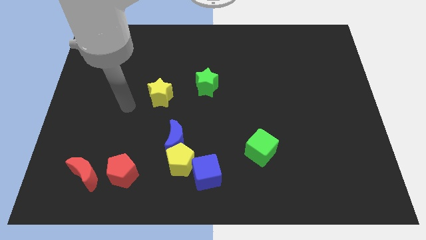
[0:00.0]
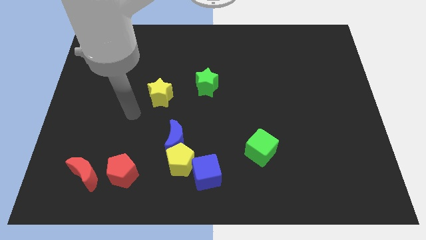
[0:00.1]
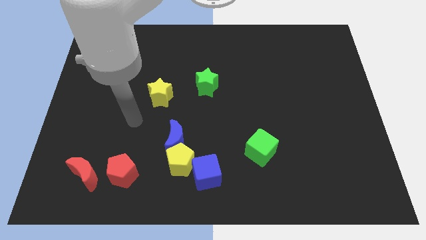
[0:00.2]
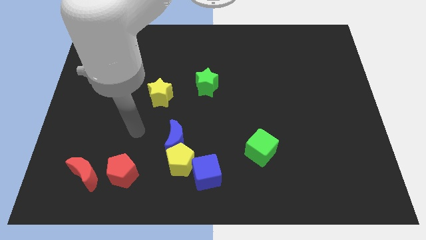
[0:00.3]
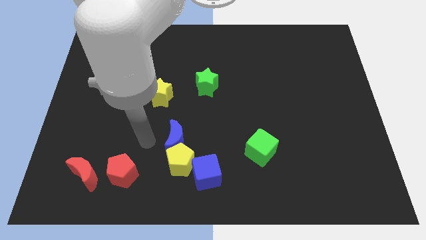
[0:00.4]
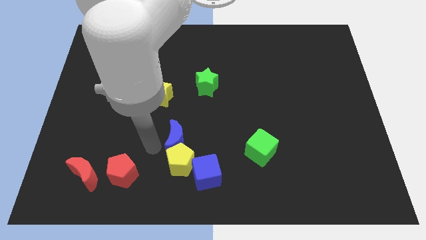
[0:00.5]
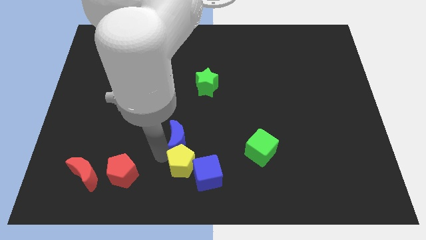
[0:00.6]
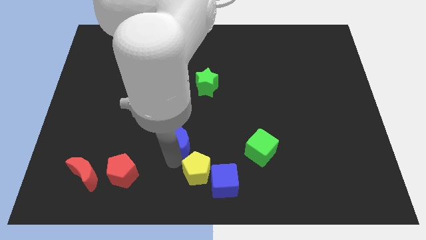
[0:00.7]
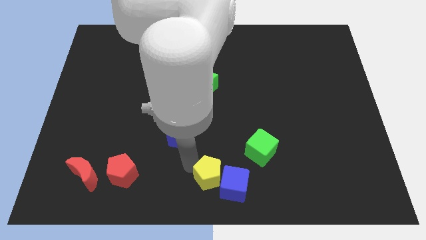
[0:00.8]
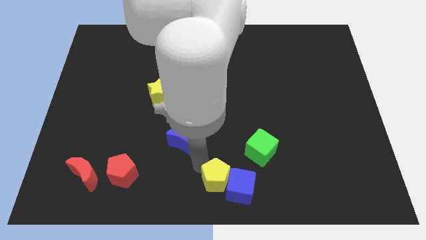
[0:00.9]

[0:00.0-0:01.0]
move the blue moon away from the yellow pentagon

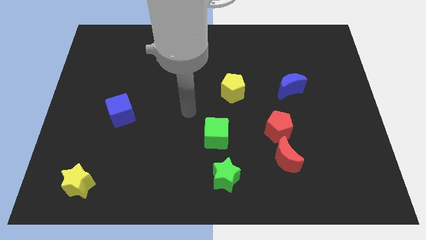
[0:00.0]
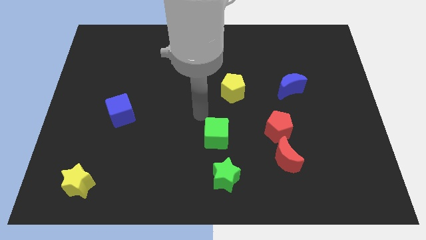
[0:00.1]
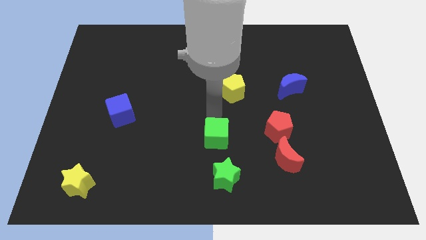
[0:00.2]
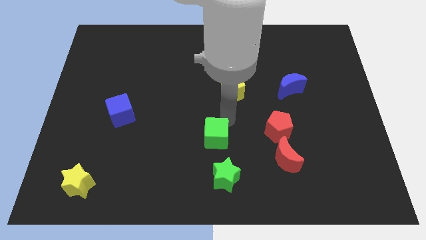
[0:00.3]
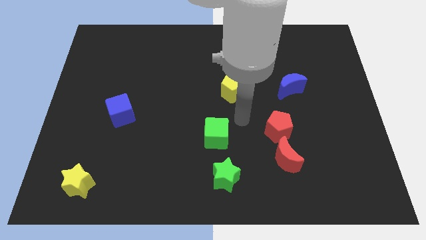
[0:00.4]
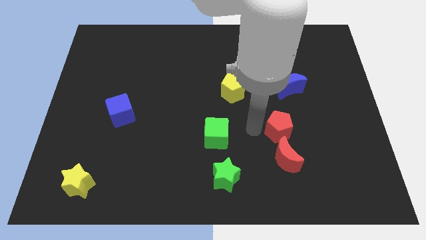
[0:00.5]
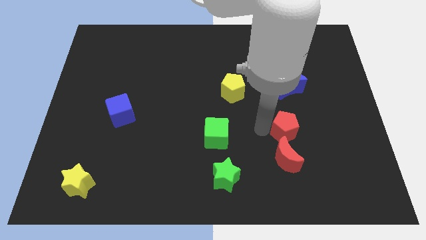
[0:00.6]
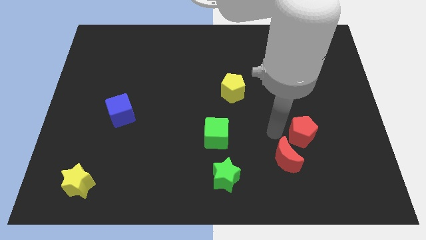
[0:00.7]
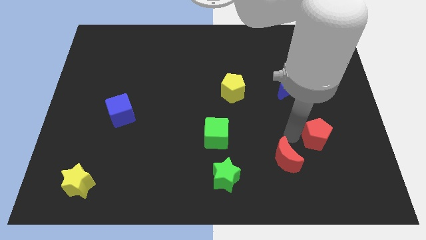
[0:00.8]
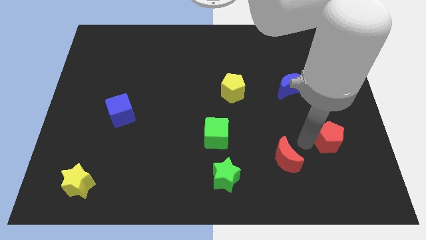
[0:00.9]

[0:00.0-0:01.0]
move the red moon away from the red pentagon

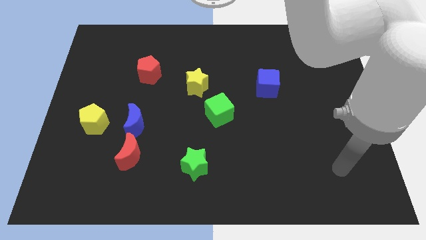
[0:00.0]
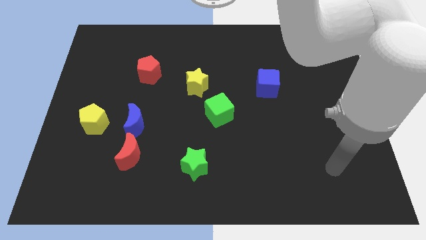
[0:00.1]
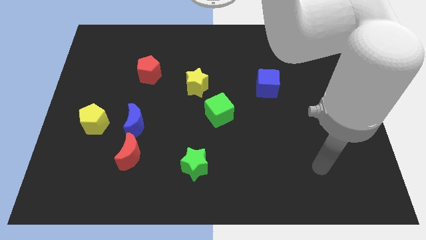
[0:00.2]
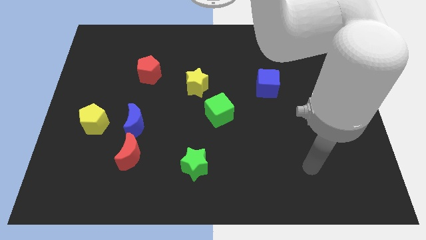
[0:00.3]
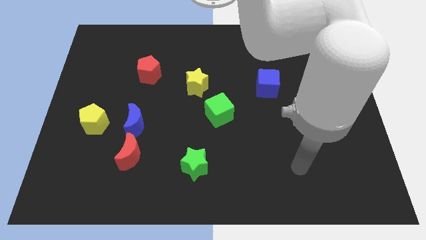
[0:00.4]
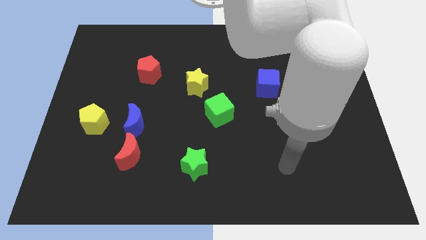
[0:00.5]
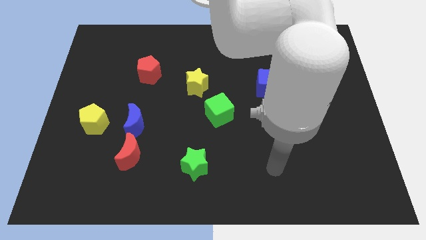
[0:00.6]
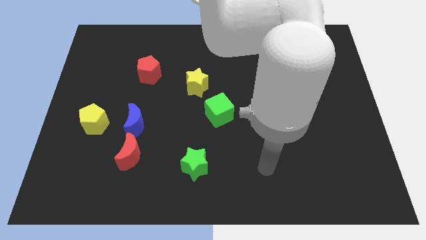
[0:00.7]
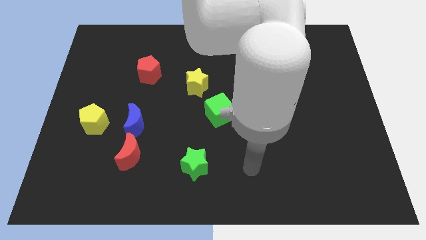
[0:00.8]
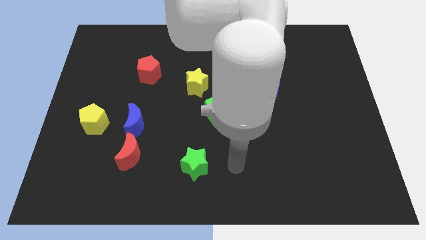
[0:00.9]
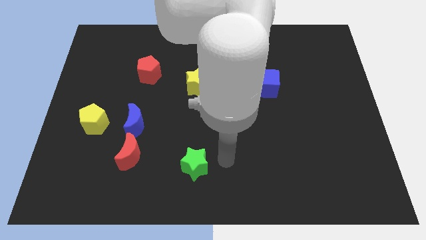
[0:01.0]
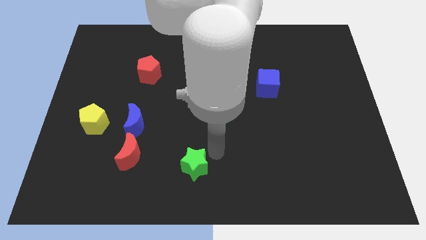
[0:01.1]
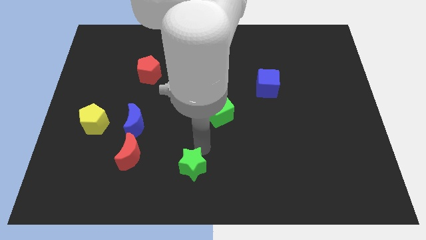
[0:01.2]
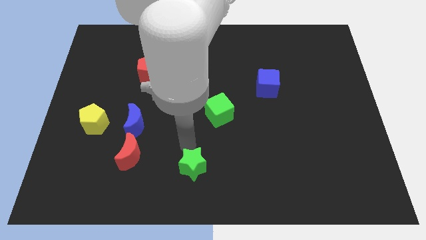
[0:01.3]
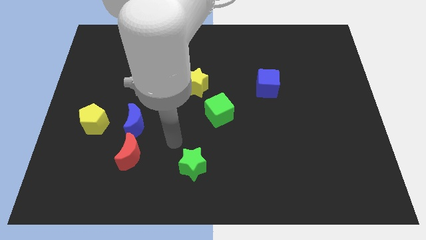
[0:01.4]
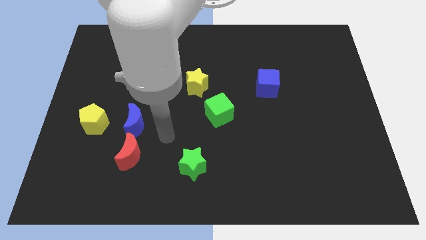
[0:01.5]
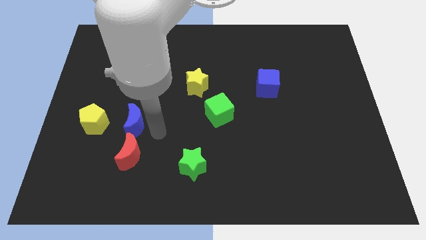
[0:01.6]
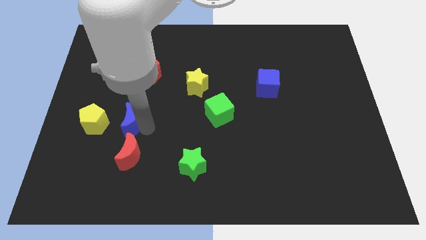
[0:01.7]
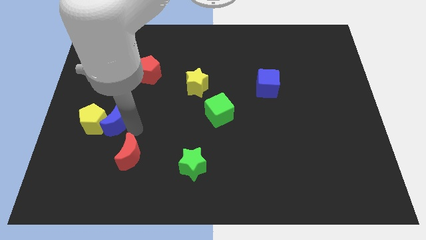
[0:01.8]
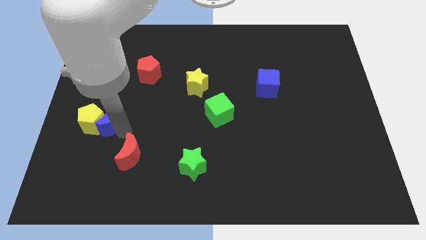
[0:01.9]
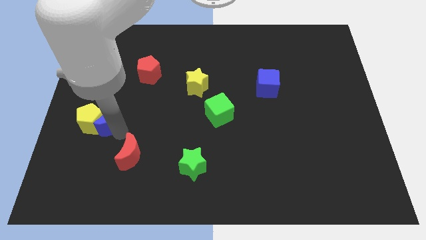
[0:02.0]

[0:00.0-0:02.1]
separate the red moon from the blue moon

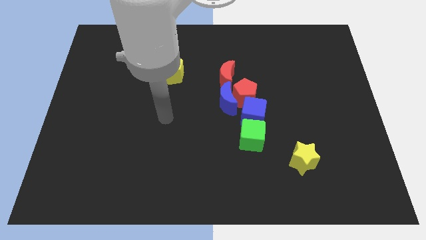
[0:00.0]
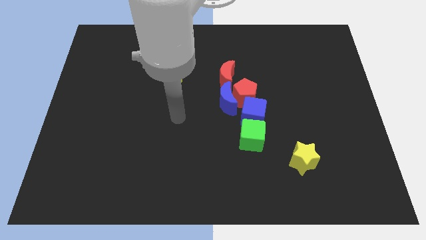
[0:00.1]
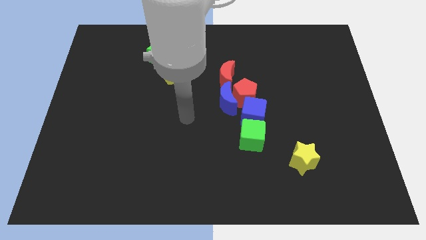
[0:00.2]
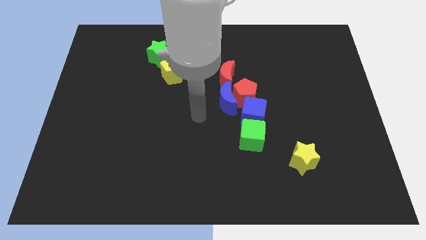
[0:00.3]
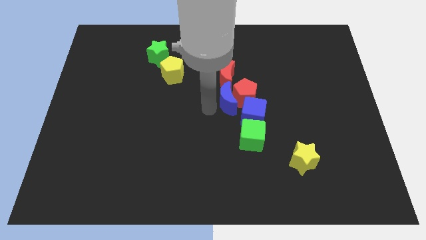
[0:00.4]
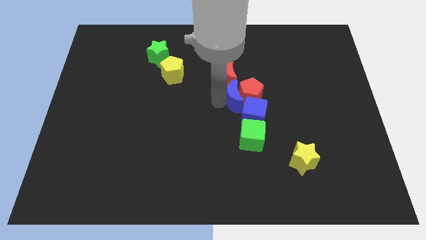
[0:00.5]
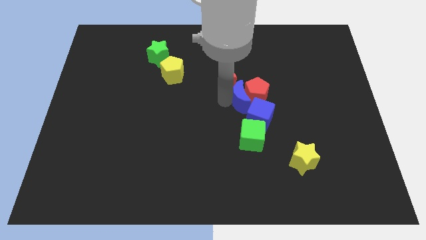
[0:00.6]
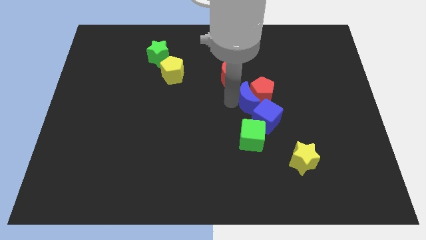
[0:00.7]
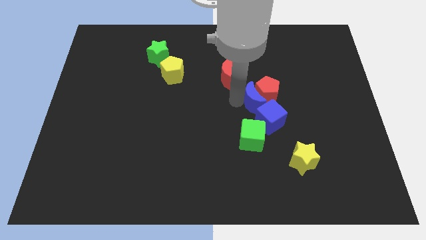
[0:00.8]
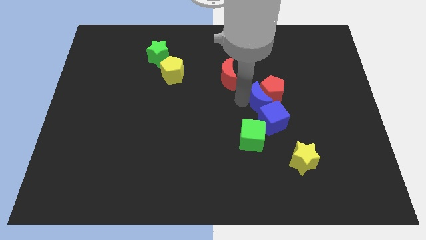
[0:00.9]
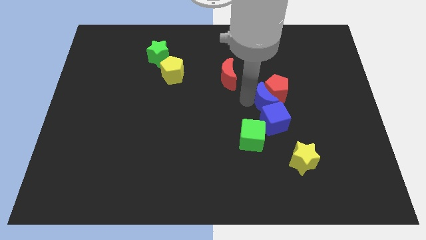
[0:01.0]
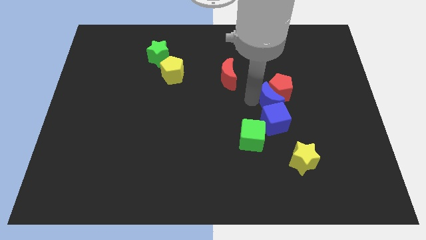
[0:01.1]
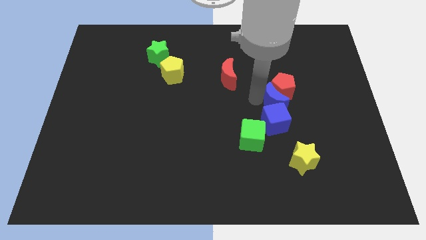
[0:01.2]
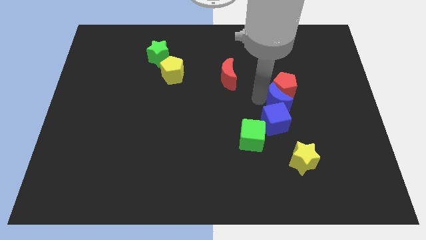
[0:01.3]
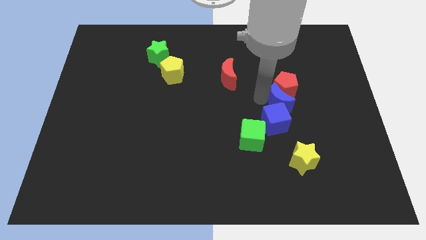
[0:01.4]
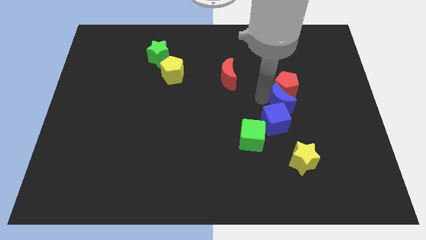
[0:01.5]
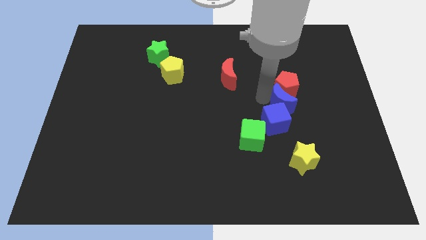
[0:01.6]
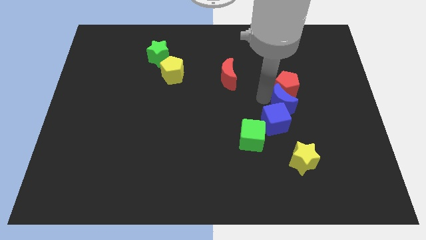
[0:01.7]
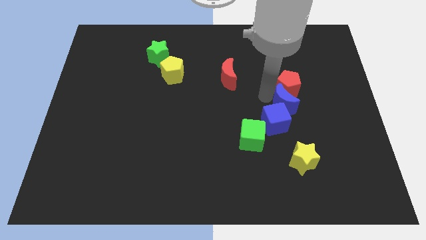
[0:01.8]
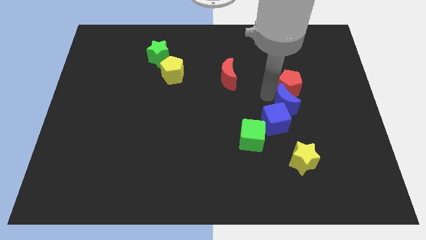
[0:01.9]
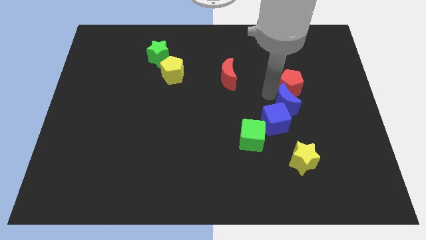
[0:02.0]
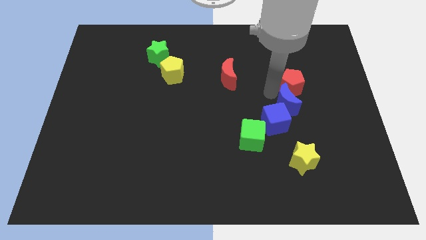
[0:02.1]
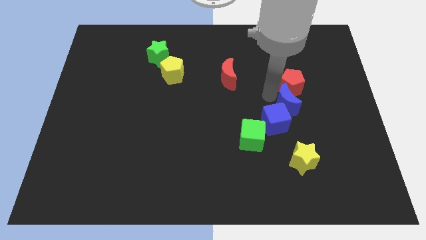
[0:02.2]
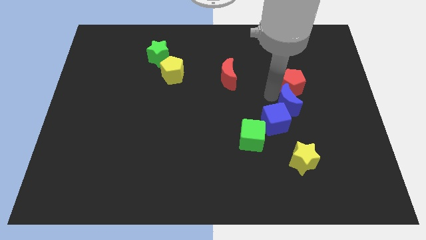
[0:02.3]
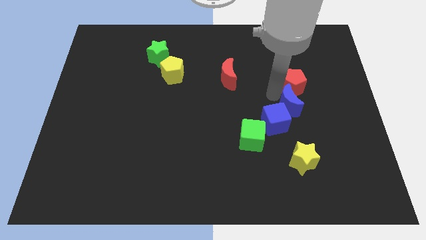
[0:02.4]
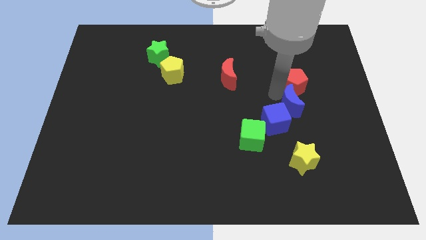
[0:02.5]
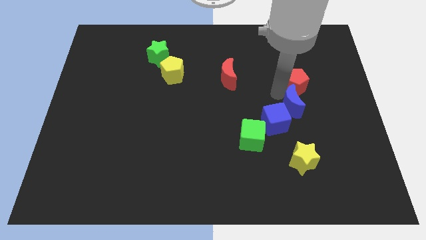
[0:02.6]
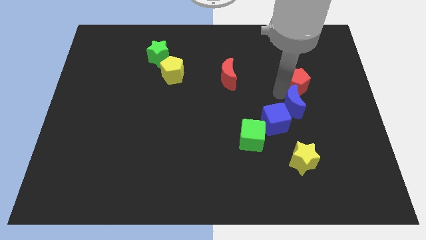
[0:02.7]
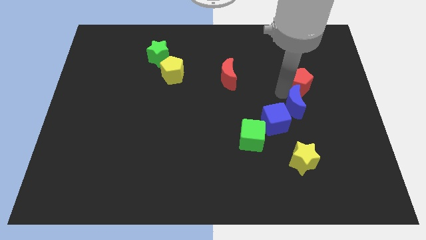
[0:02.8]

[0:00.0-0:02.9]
pull the red pentagon apart from the clump

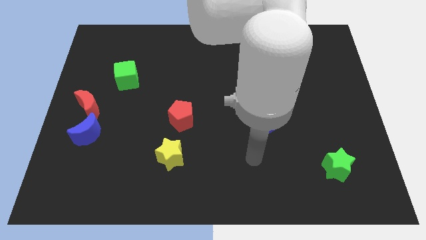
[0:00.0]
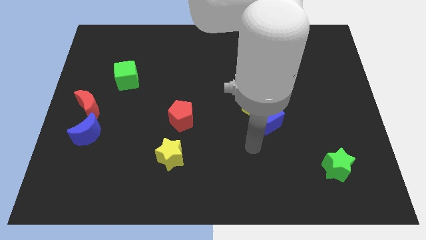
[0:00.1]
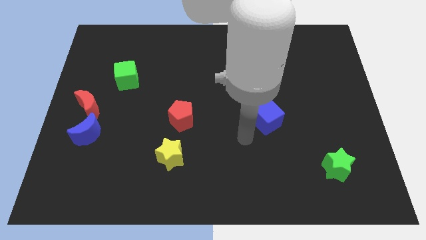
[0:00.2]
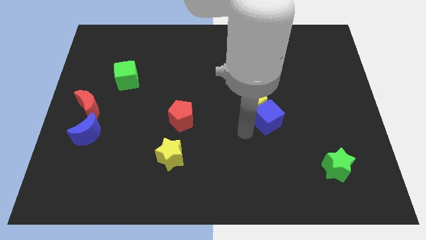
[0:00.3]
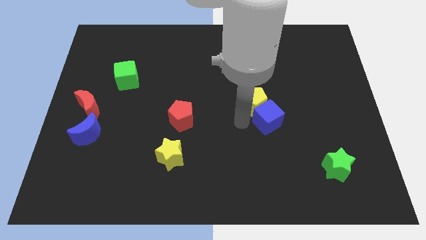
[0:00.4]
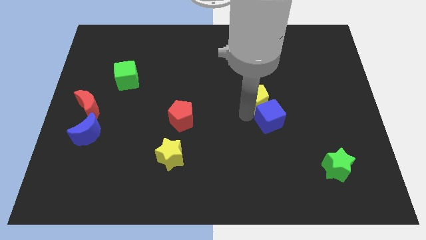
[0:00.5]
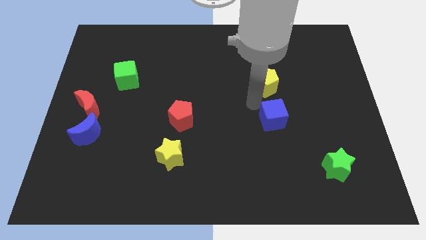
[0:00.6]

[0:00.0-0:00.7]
separate the blue cube from the yellow pentagon

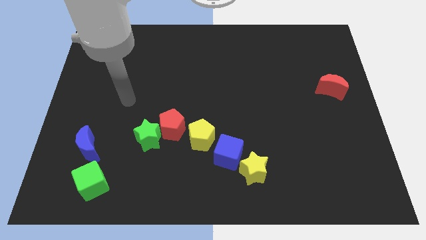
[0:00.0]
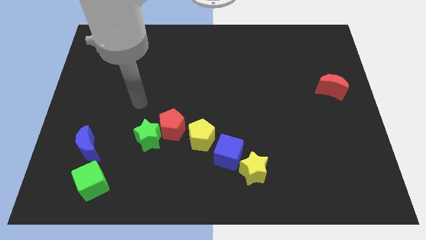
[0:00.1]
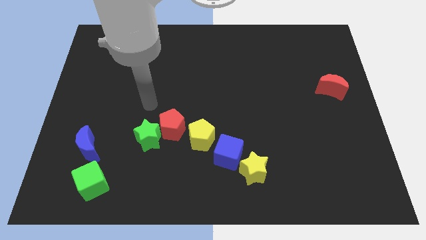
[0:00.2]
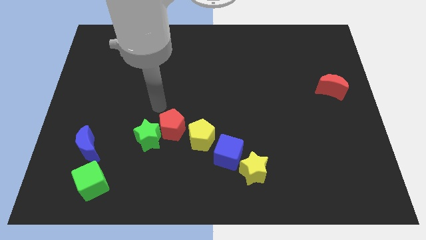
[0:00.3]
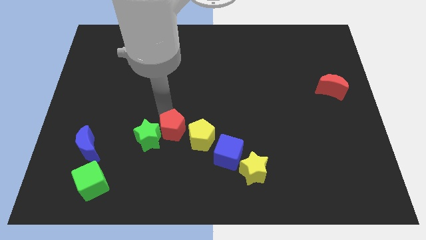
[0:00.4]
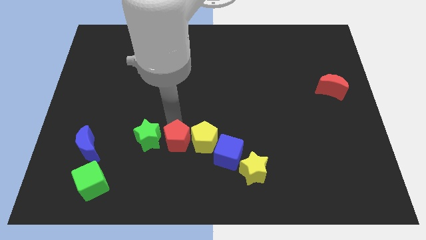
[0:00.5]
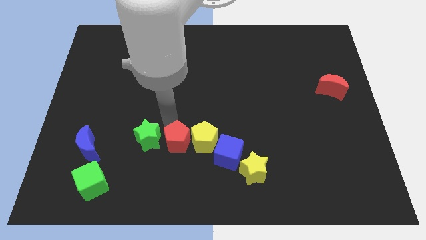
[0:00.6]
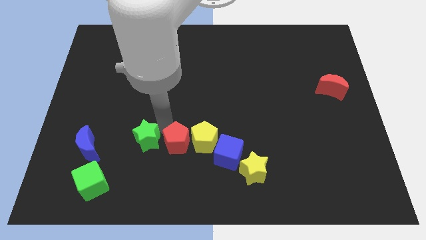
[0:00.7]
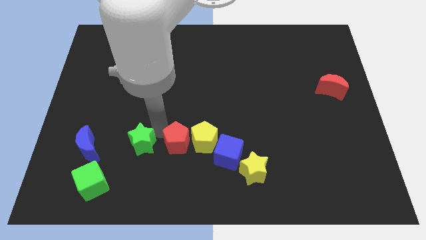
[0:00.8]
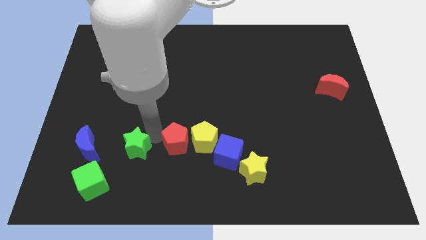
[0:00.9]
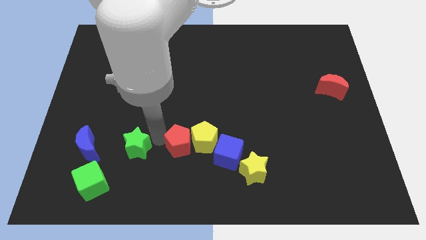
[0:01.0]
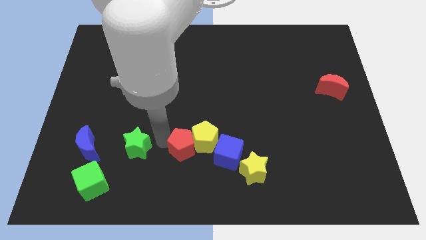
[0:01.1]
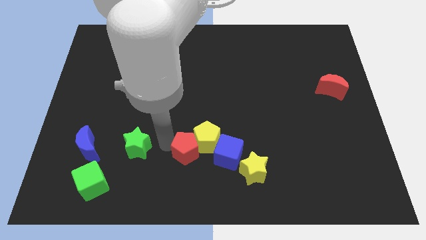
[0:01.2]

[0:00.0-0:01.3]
pull the green star apart from the red pentagon

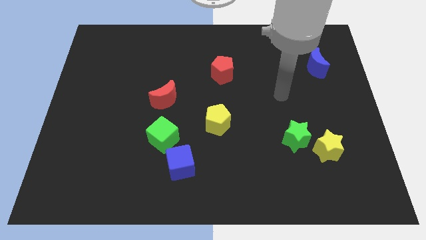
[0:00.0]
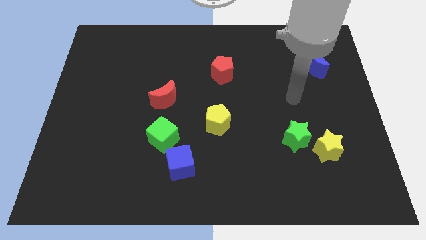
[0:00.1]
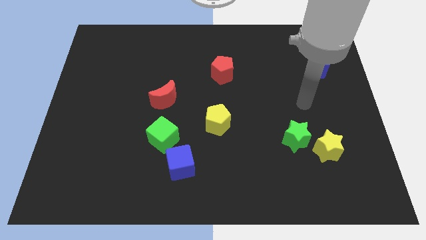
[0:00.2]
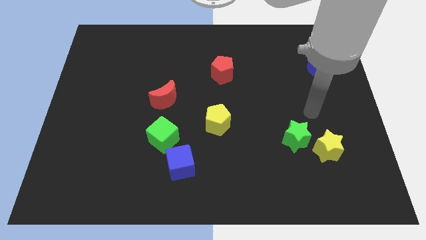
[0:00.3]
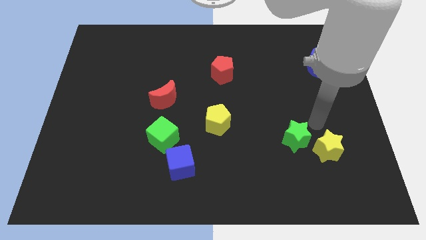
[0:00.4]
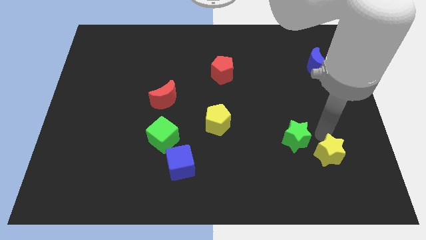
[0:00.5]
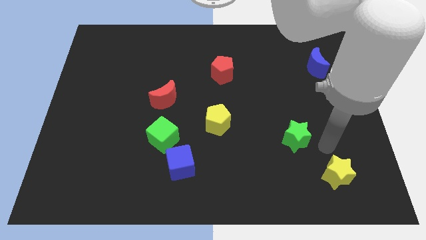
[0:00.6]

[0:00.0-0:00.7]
move the green star away from the yellow star
